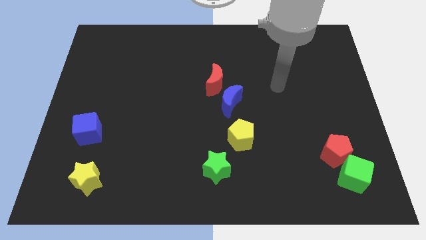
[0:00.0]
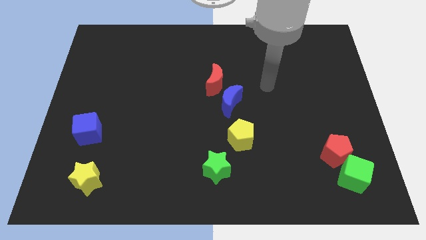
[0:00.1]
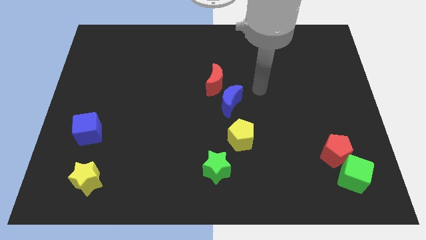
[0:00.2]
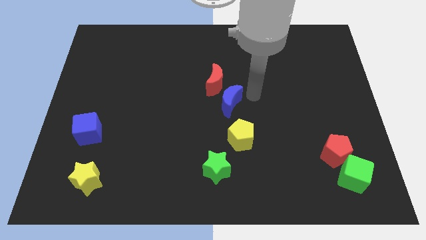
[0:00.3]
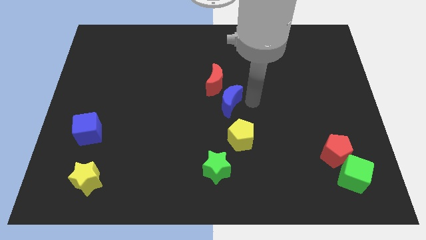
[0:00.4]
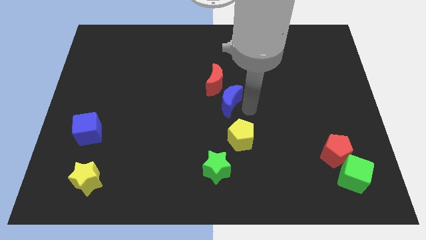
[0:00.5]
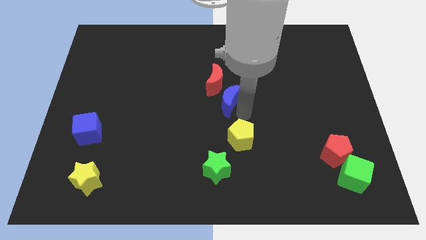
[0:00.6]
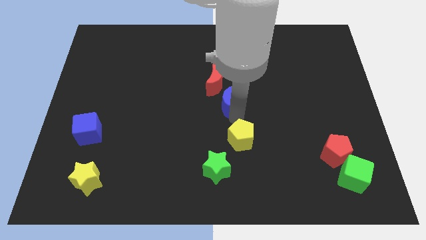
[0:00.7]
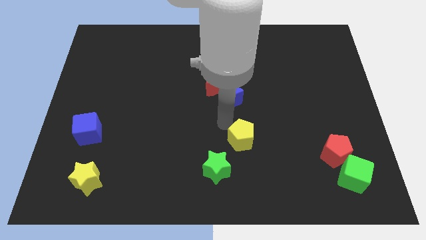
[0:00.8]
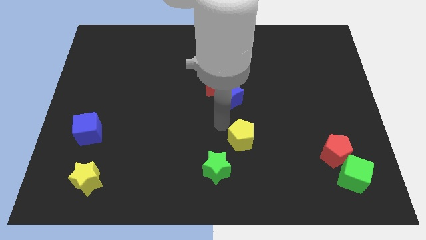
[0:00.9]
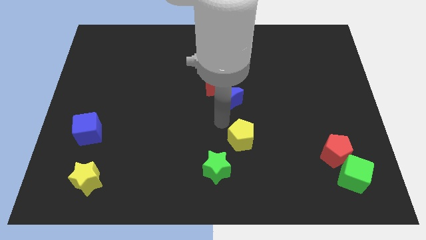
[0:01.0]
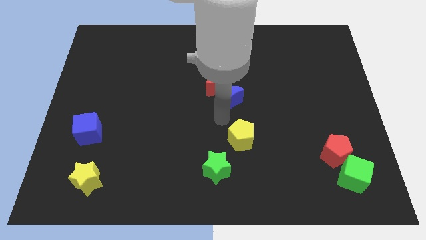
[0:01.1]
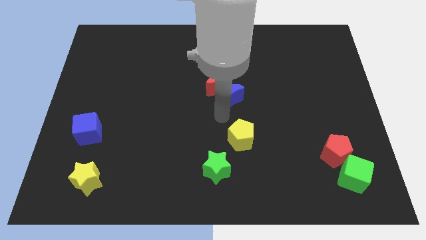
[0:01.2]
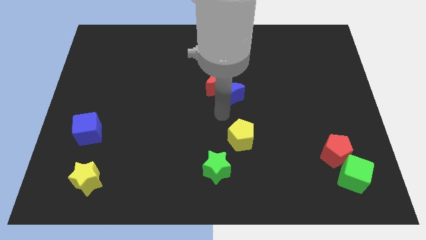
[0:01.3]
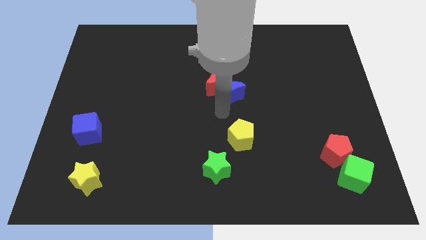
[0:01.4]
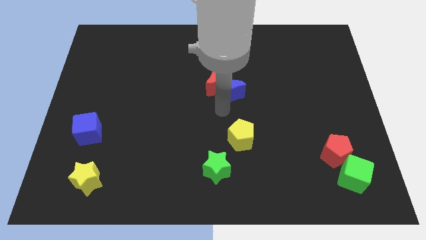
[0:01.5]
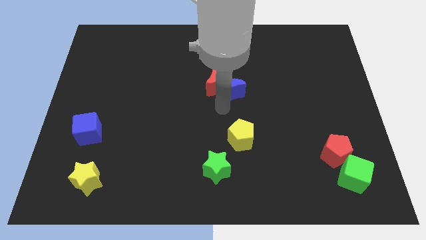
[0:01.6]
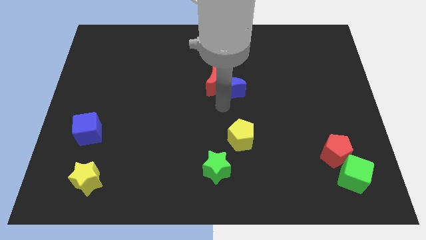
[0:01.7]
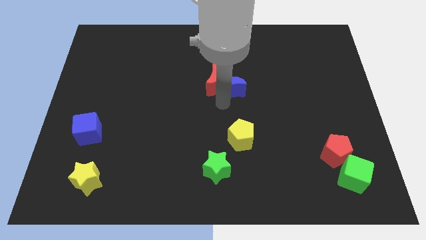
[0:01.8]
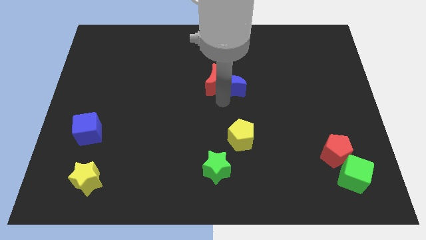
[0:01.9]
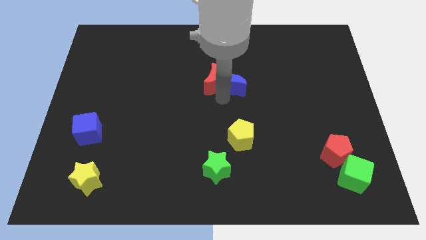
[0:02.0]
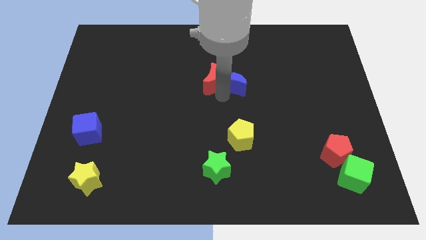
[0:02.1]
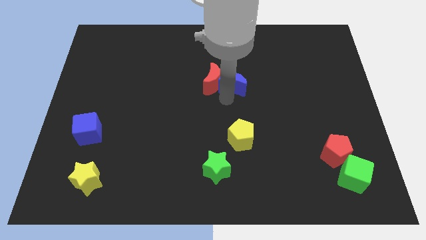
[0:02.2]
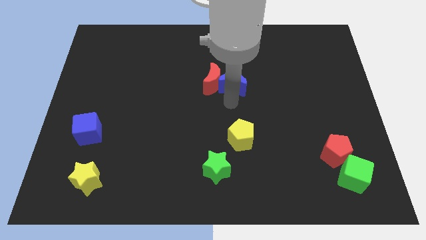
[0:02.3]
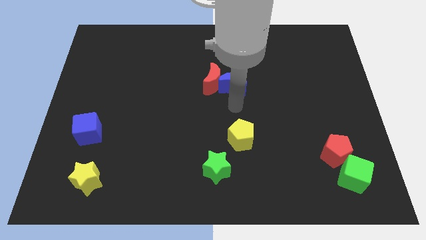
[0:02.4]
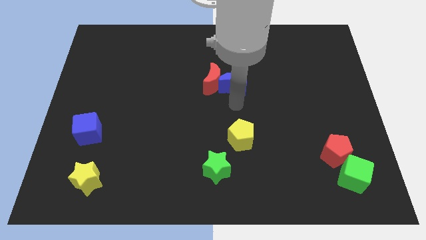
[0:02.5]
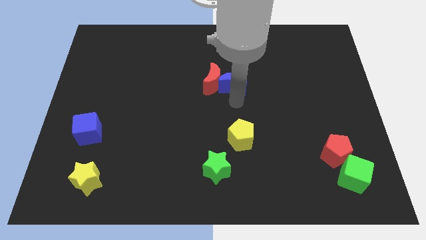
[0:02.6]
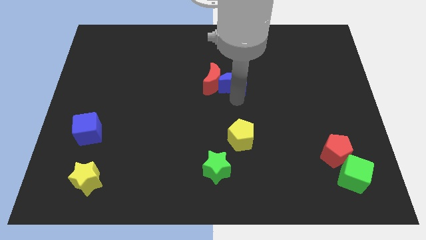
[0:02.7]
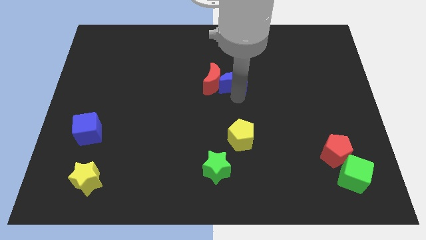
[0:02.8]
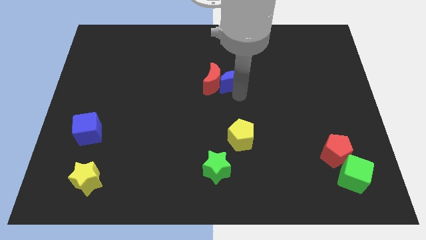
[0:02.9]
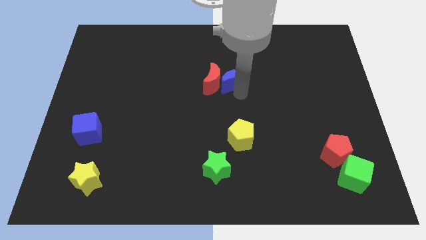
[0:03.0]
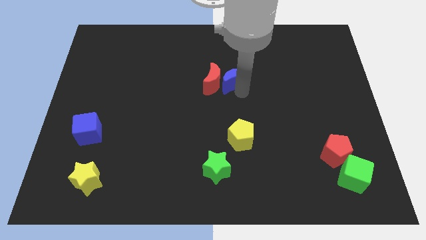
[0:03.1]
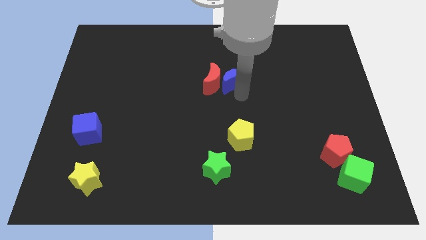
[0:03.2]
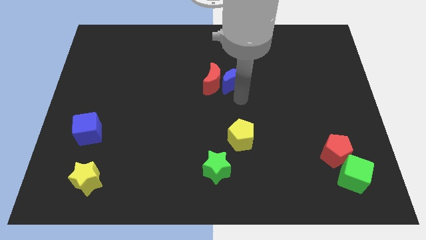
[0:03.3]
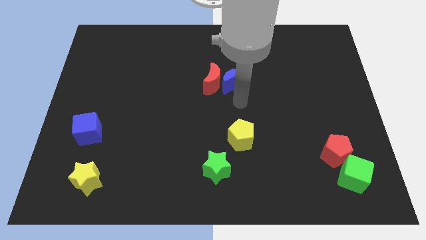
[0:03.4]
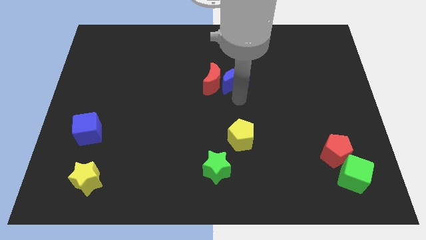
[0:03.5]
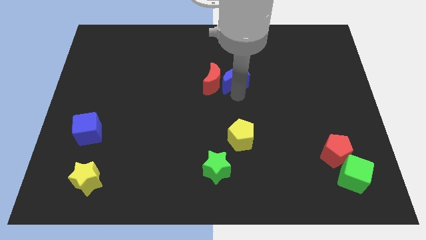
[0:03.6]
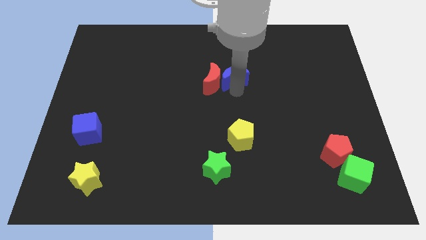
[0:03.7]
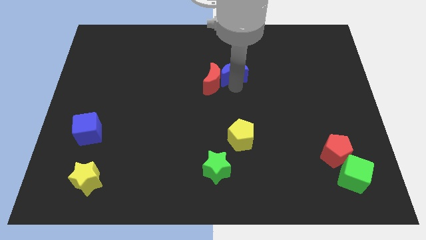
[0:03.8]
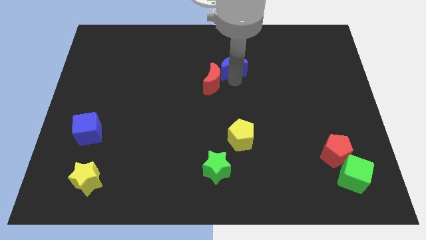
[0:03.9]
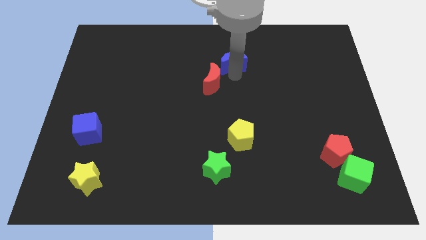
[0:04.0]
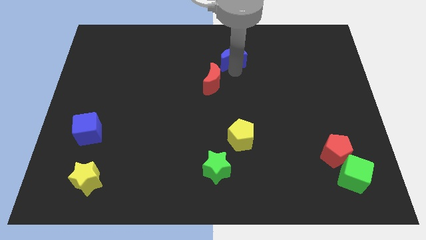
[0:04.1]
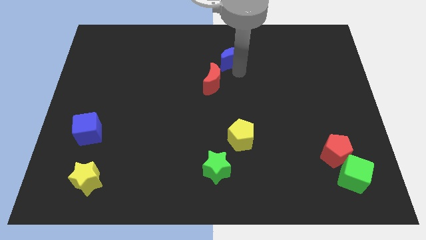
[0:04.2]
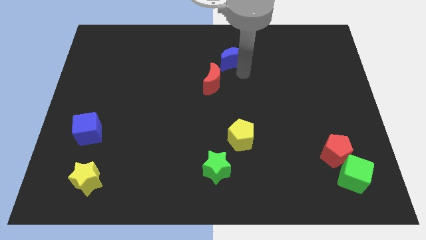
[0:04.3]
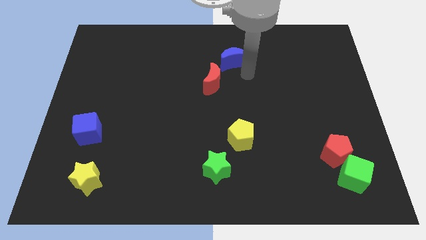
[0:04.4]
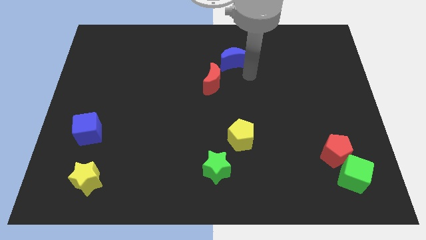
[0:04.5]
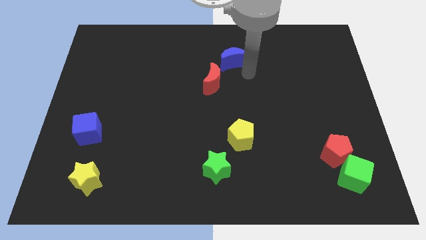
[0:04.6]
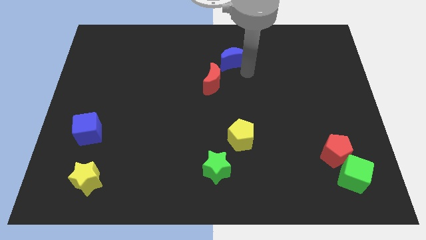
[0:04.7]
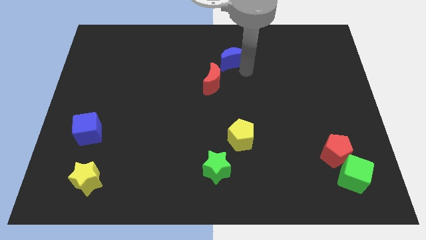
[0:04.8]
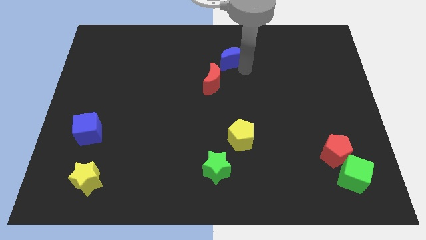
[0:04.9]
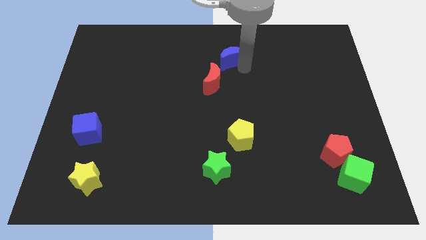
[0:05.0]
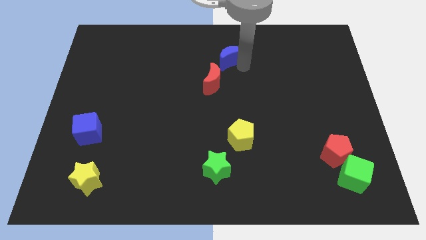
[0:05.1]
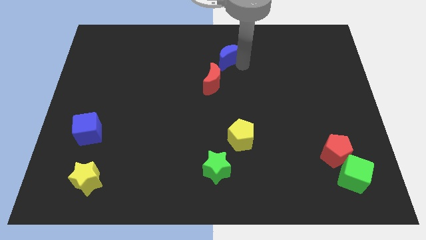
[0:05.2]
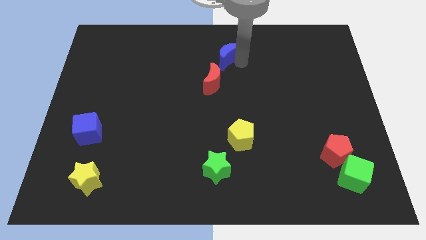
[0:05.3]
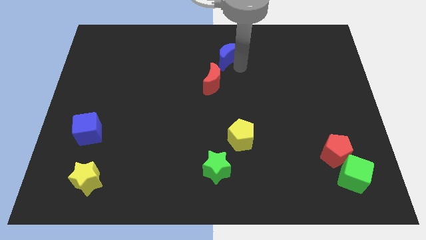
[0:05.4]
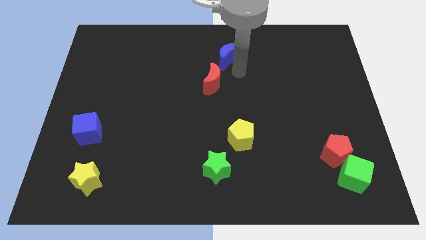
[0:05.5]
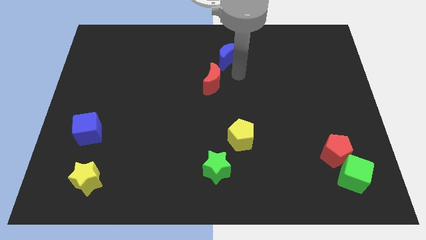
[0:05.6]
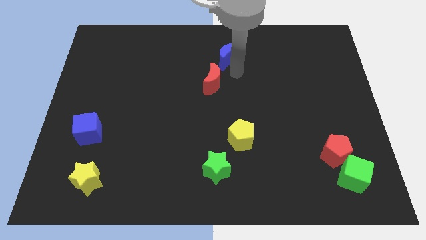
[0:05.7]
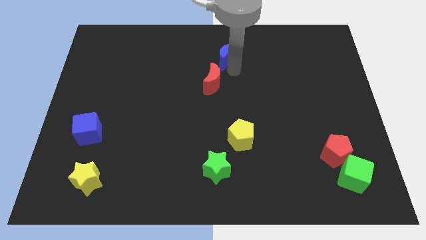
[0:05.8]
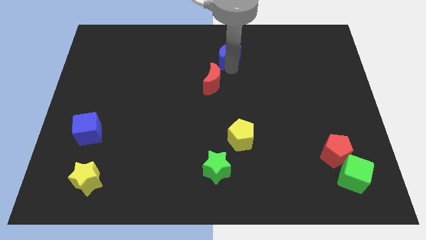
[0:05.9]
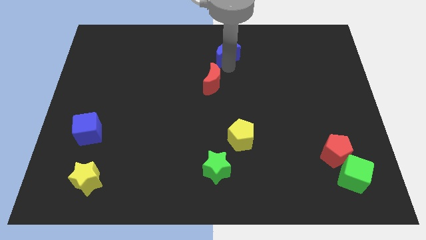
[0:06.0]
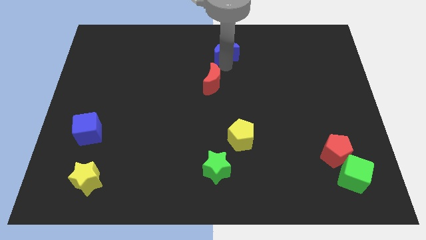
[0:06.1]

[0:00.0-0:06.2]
slide the blue moon to the top

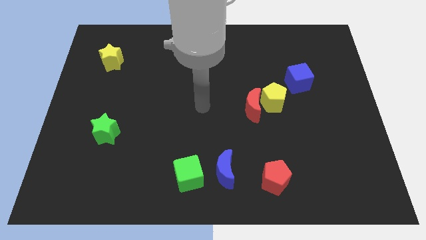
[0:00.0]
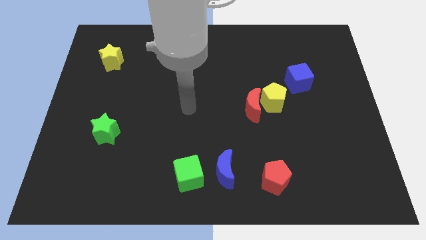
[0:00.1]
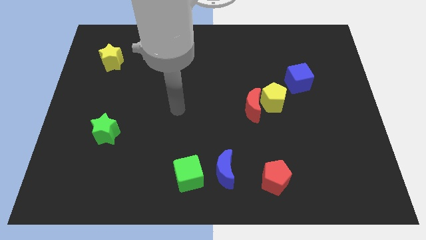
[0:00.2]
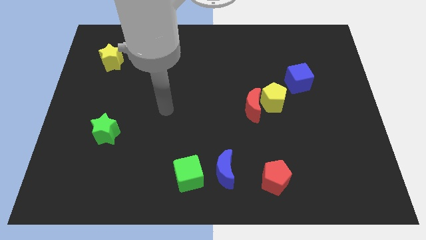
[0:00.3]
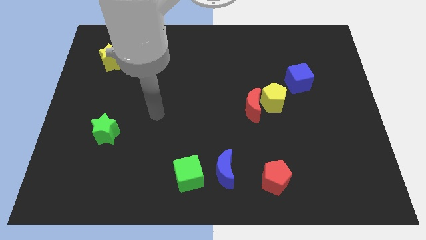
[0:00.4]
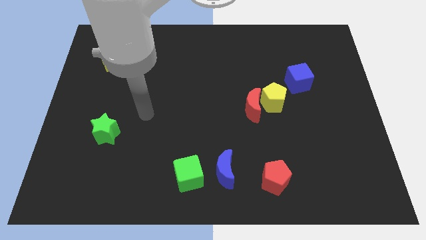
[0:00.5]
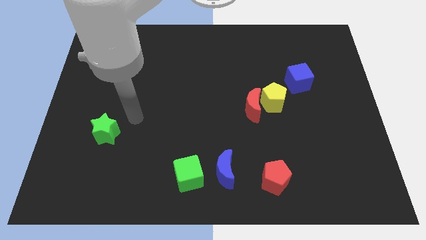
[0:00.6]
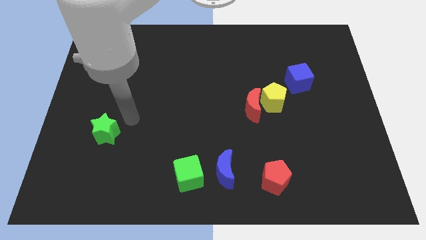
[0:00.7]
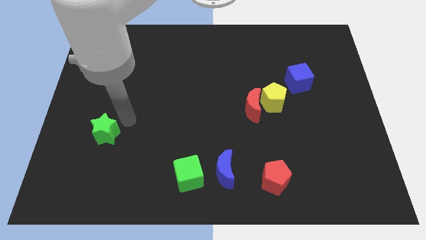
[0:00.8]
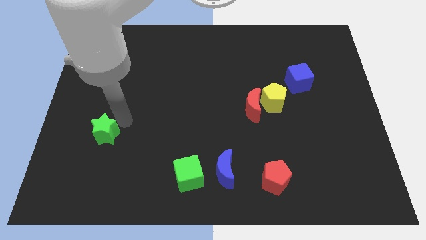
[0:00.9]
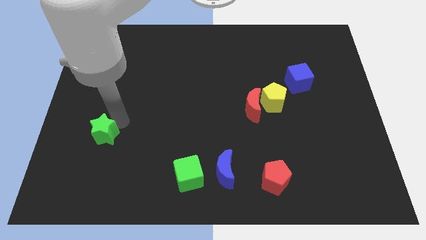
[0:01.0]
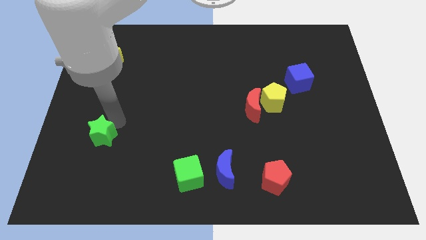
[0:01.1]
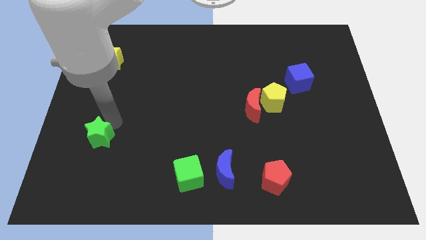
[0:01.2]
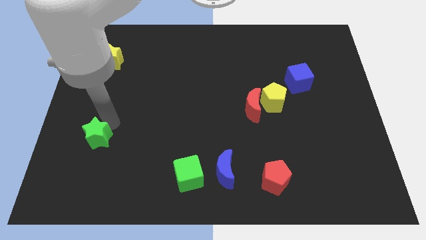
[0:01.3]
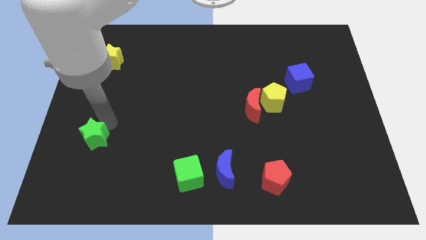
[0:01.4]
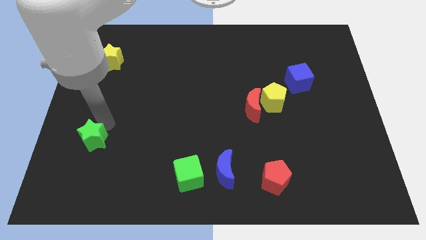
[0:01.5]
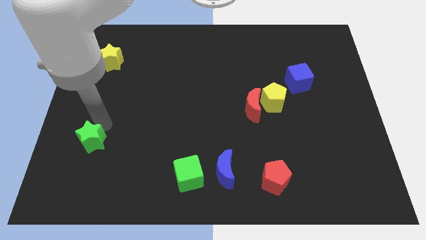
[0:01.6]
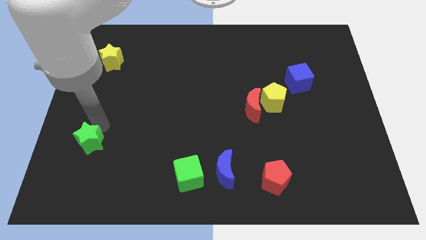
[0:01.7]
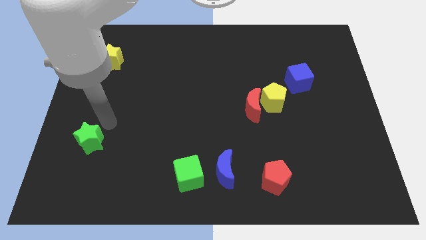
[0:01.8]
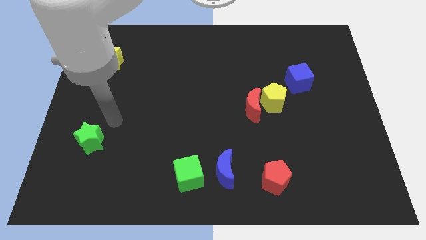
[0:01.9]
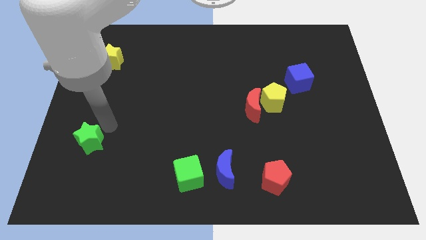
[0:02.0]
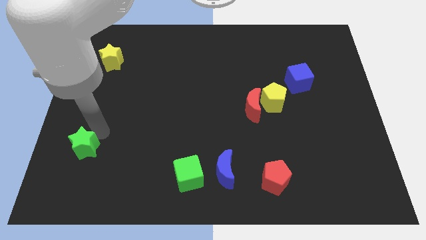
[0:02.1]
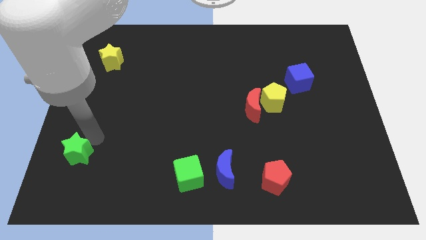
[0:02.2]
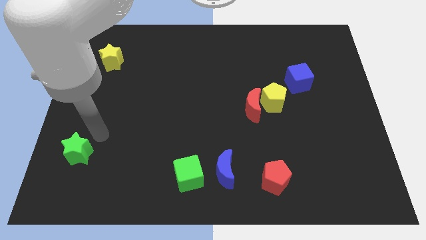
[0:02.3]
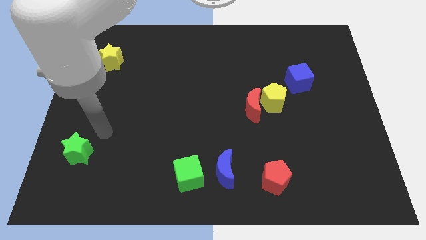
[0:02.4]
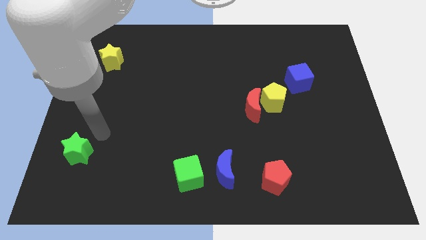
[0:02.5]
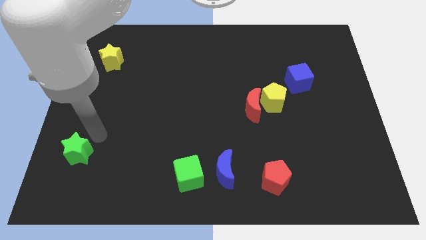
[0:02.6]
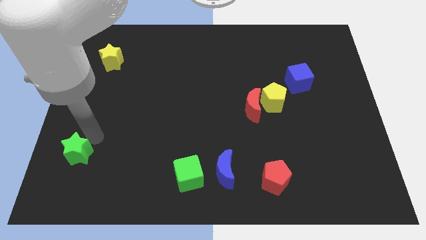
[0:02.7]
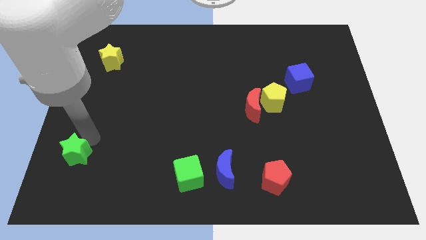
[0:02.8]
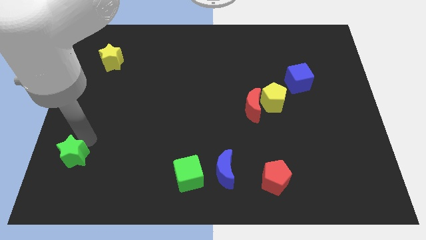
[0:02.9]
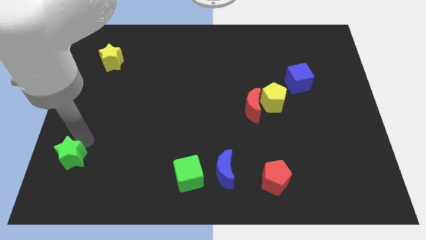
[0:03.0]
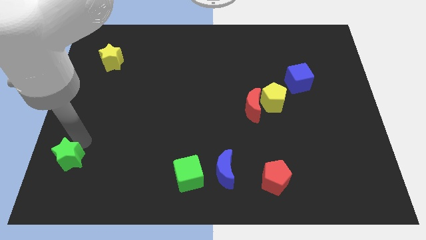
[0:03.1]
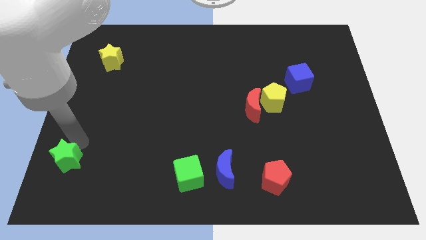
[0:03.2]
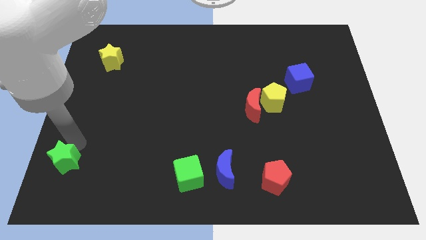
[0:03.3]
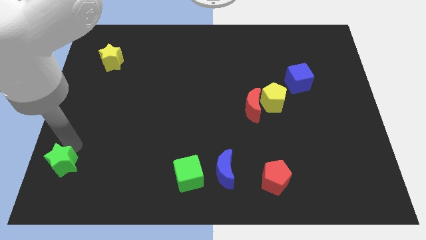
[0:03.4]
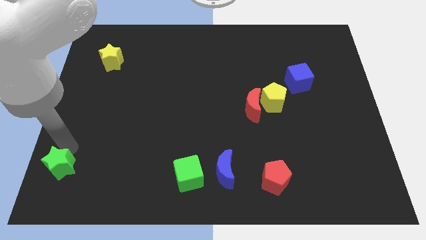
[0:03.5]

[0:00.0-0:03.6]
slide the green star to the bottom left
